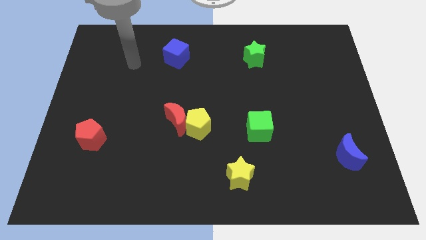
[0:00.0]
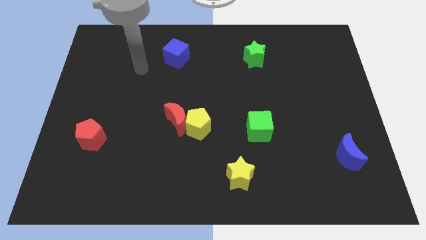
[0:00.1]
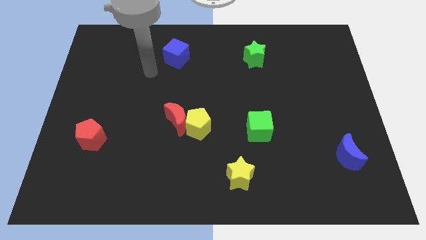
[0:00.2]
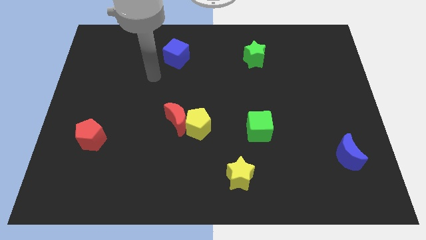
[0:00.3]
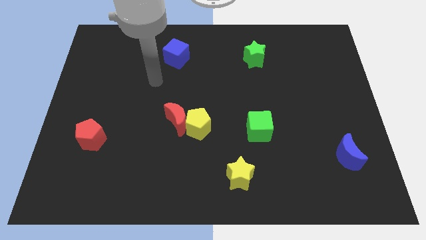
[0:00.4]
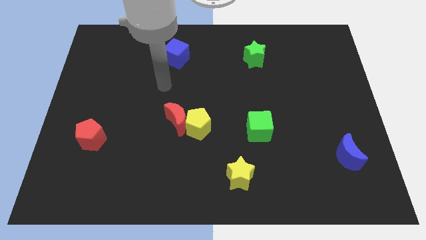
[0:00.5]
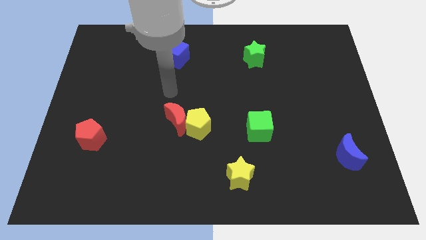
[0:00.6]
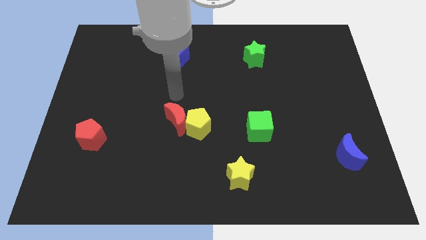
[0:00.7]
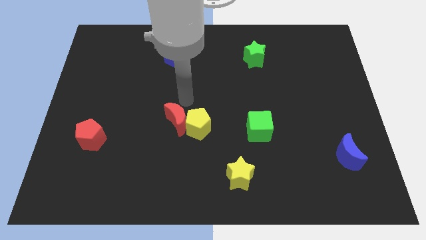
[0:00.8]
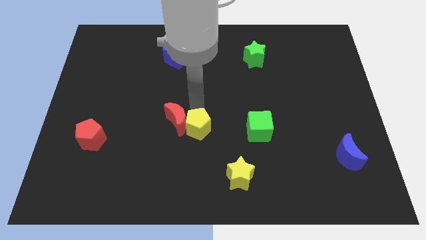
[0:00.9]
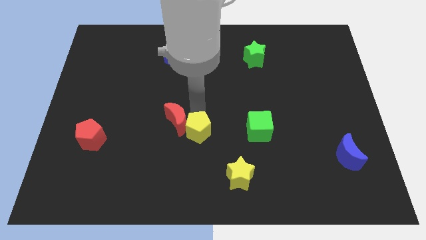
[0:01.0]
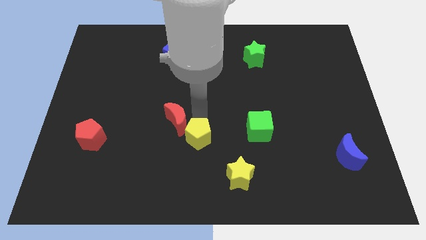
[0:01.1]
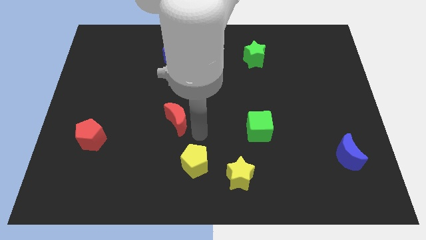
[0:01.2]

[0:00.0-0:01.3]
pull the red moon apart from the yellow pentagon

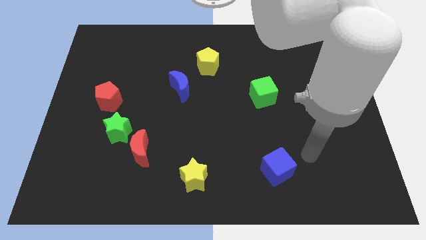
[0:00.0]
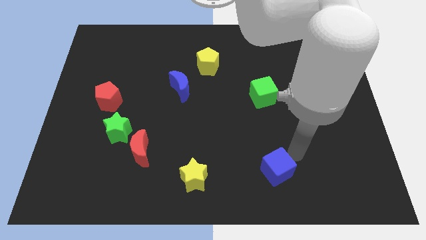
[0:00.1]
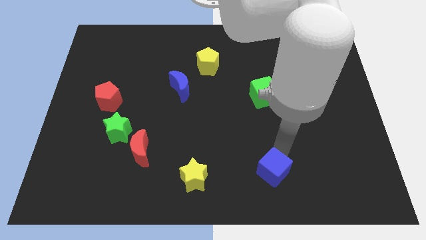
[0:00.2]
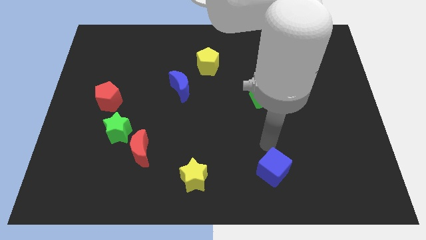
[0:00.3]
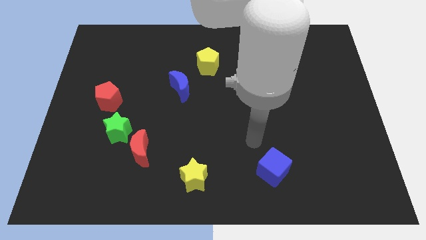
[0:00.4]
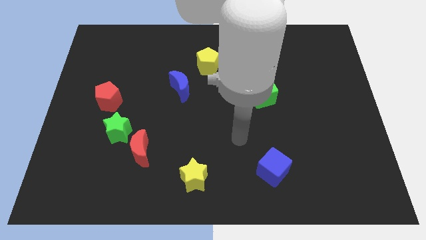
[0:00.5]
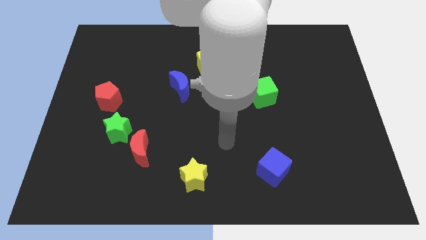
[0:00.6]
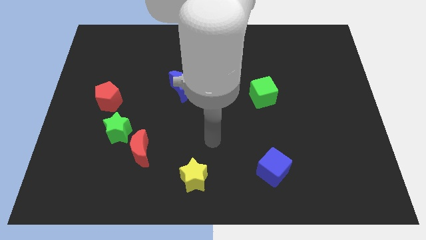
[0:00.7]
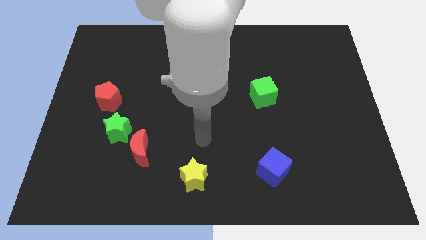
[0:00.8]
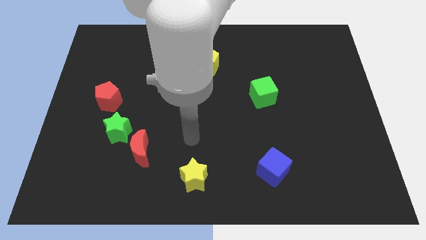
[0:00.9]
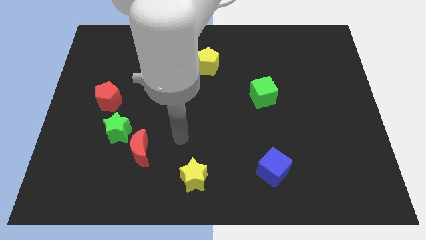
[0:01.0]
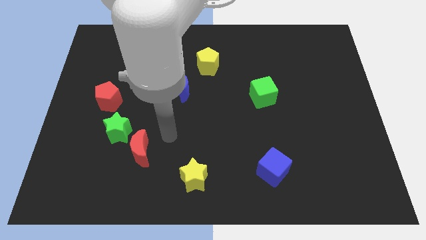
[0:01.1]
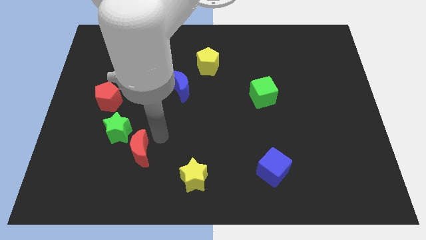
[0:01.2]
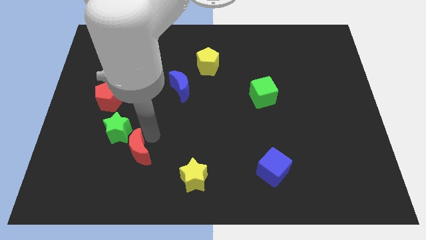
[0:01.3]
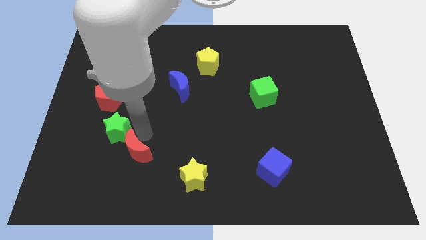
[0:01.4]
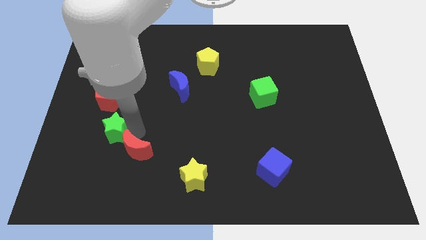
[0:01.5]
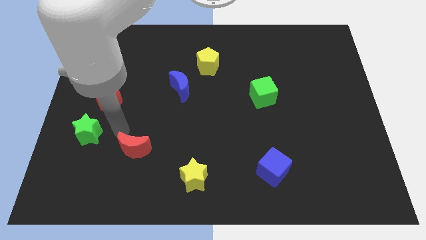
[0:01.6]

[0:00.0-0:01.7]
move the red moon away from the green star

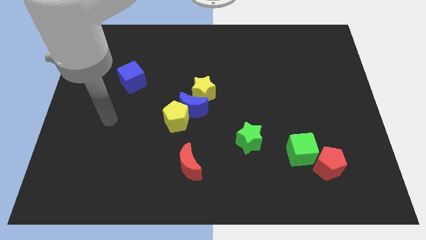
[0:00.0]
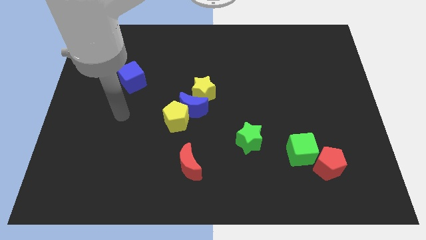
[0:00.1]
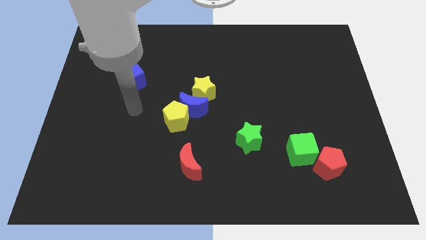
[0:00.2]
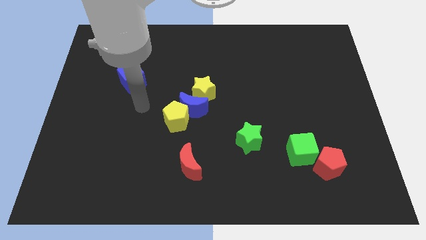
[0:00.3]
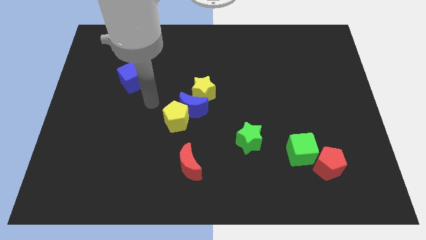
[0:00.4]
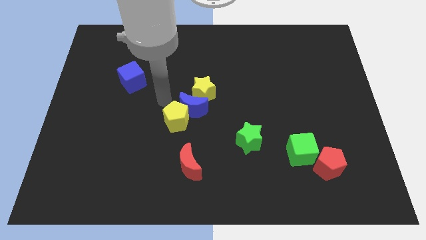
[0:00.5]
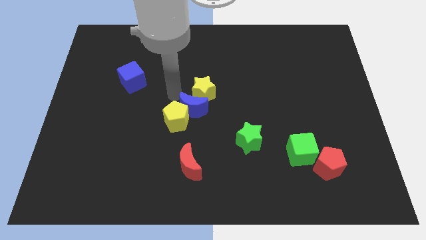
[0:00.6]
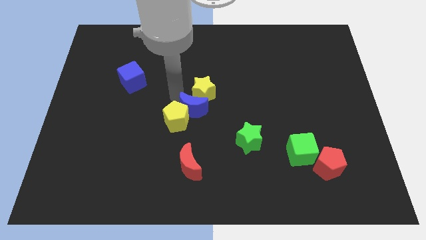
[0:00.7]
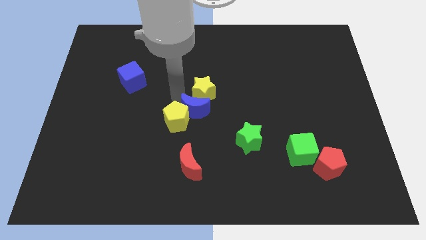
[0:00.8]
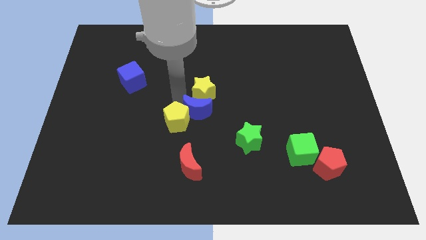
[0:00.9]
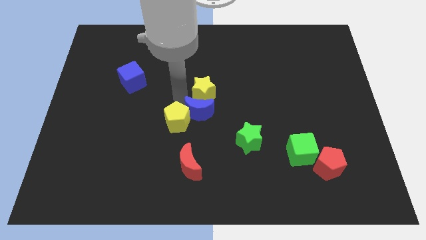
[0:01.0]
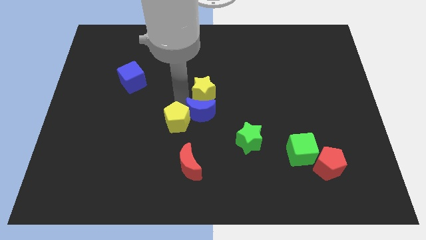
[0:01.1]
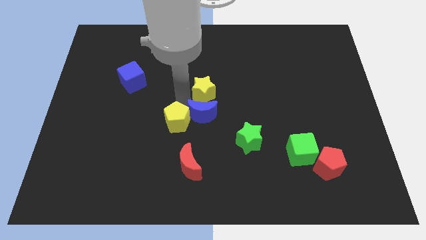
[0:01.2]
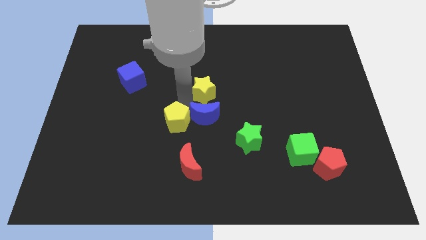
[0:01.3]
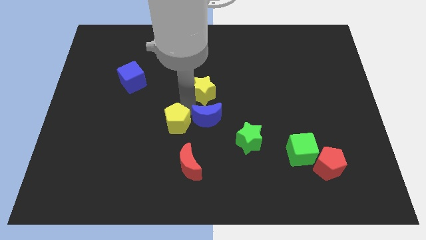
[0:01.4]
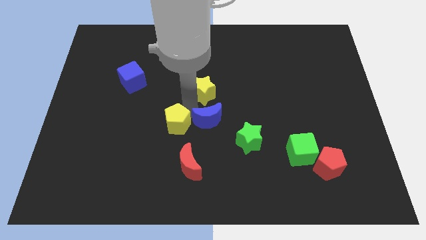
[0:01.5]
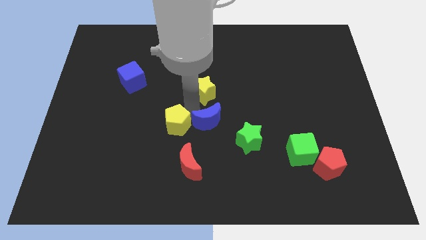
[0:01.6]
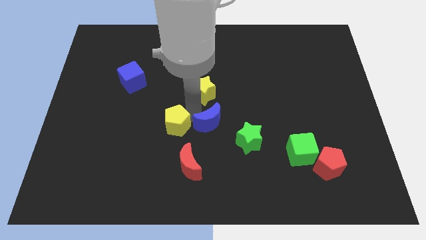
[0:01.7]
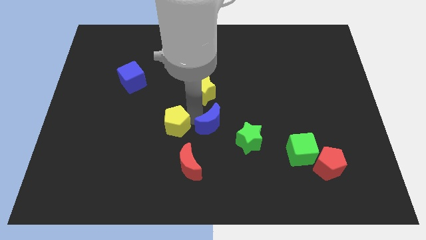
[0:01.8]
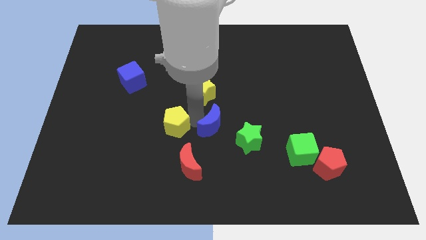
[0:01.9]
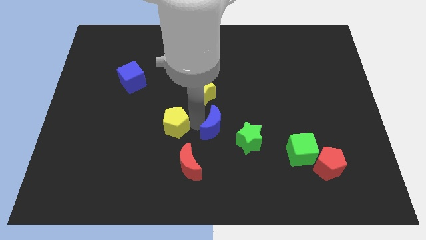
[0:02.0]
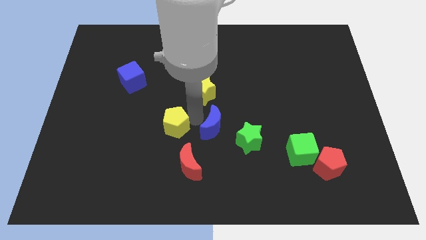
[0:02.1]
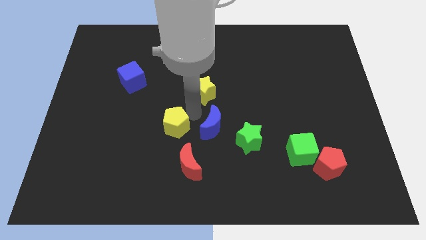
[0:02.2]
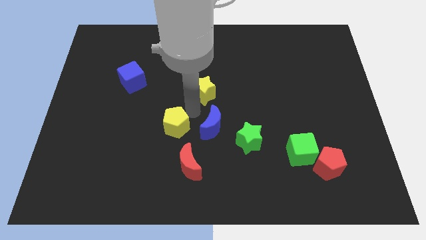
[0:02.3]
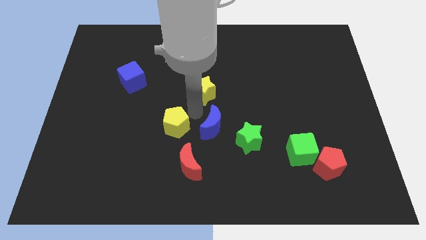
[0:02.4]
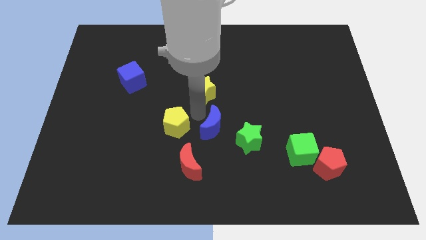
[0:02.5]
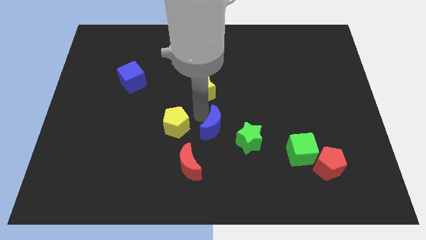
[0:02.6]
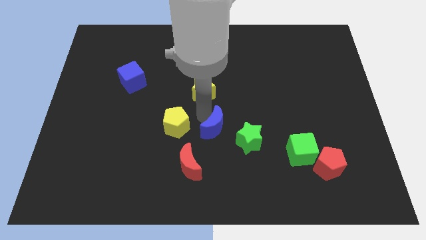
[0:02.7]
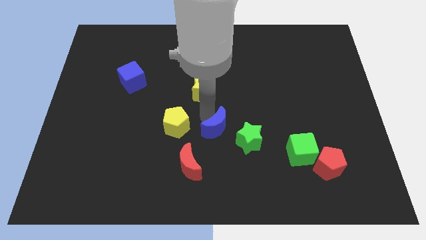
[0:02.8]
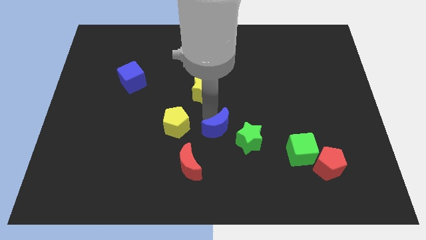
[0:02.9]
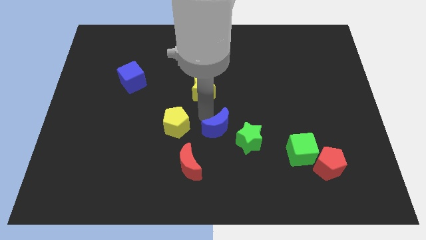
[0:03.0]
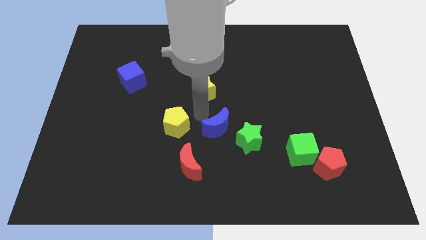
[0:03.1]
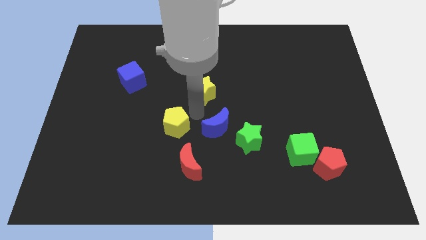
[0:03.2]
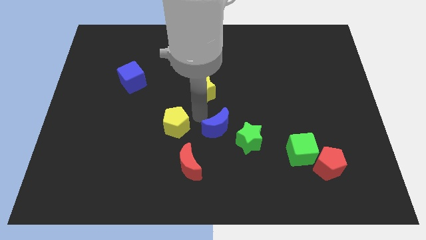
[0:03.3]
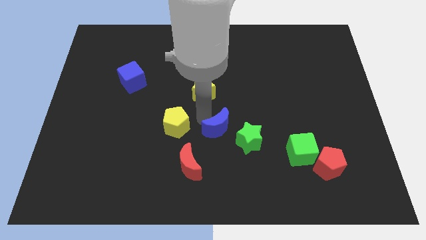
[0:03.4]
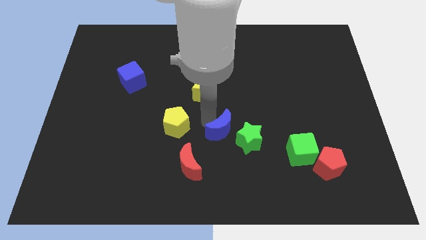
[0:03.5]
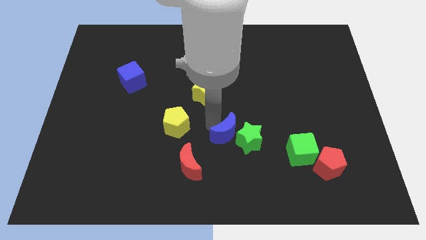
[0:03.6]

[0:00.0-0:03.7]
move the blue moon away from the yellow pentagon and yellow star

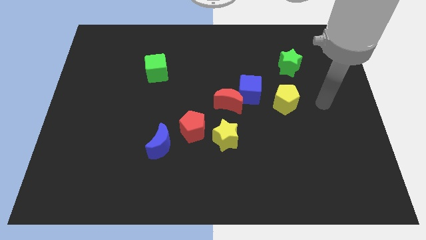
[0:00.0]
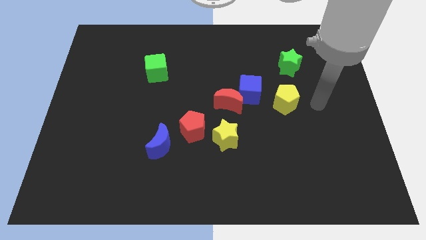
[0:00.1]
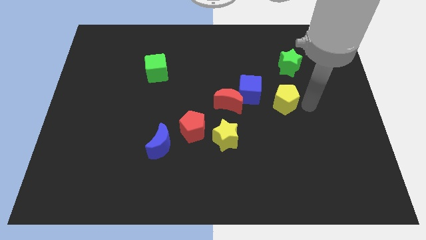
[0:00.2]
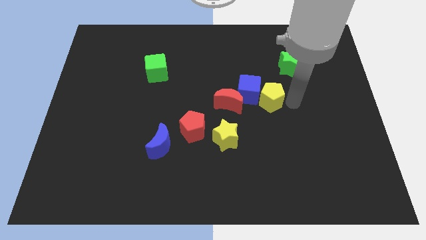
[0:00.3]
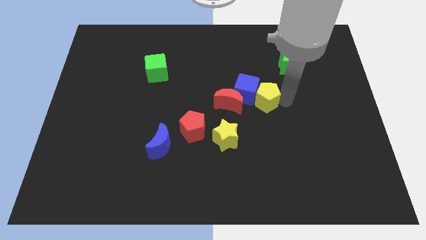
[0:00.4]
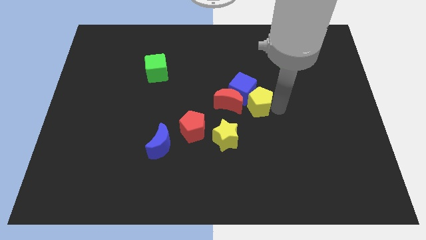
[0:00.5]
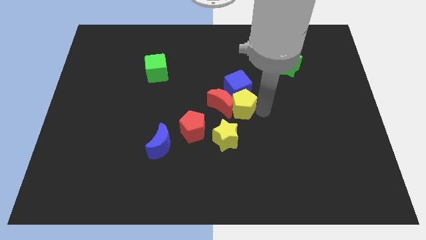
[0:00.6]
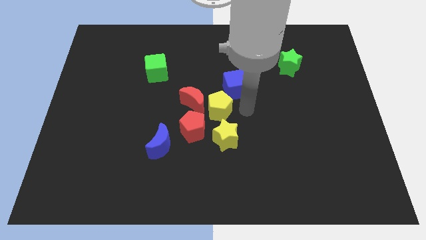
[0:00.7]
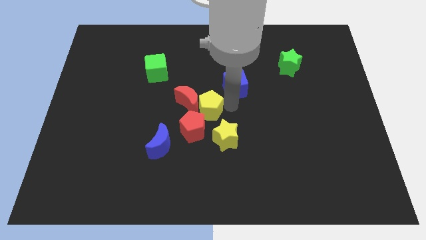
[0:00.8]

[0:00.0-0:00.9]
pull the blue cube apart from the red moon and yellow pentagon

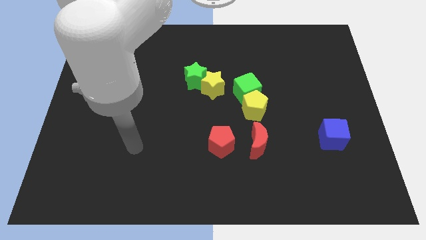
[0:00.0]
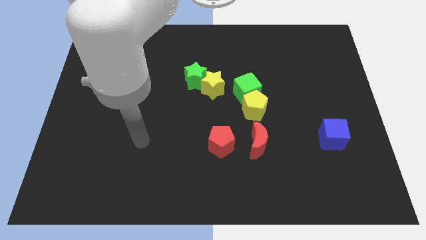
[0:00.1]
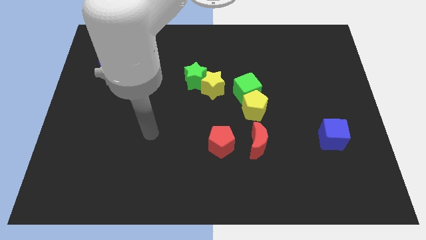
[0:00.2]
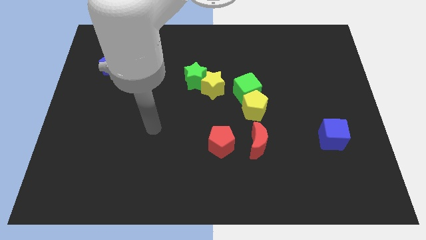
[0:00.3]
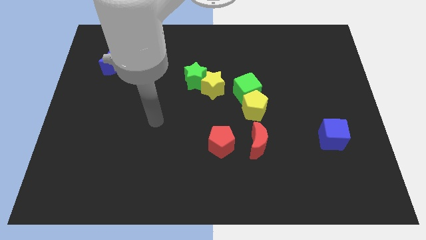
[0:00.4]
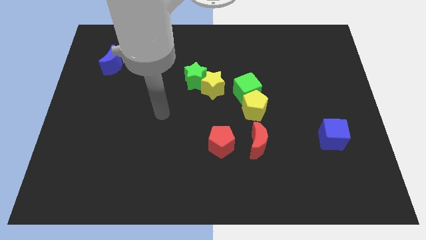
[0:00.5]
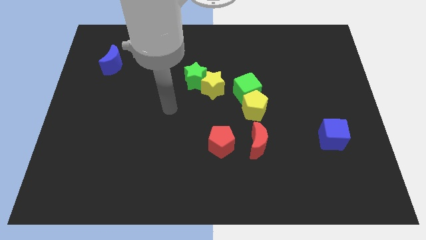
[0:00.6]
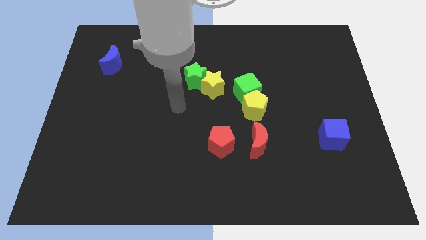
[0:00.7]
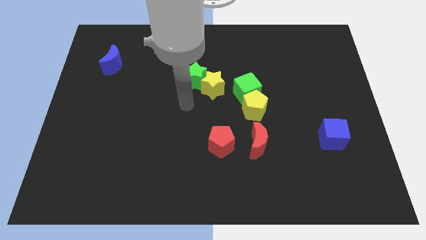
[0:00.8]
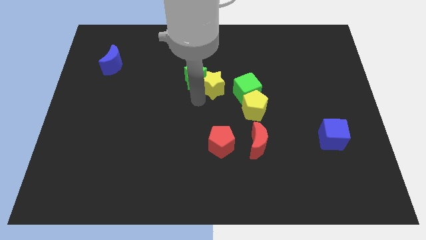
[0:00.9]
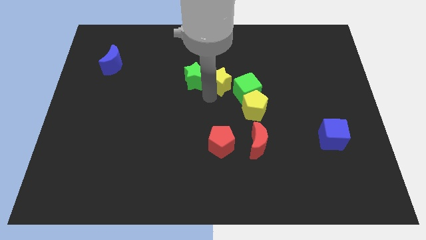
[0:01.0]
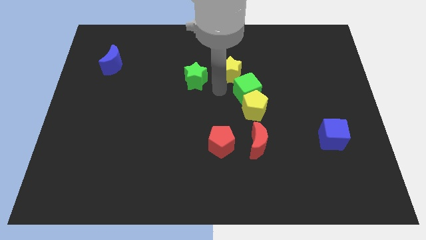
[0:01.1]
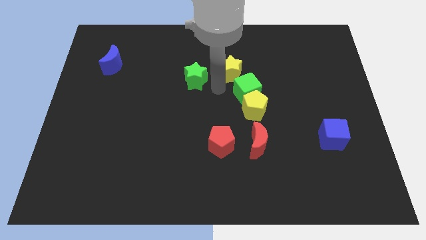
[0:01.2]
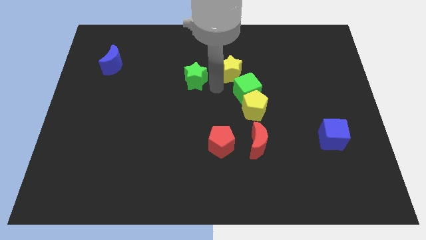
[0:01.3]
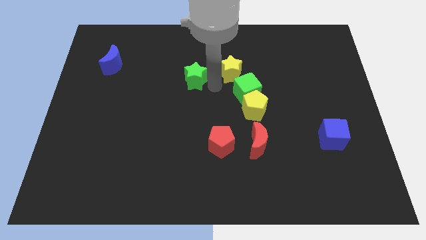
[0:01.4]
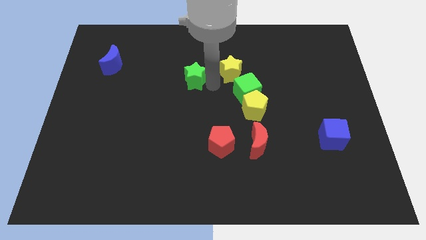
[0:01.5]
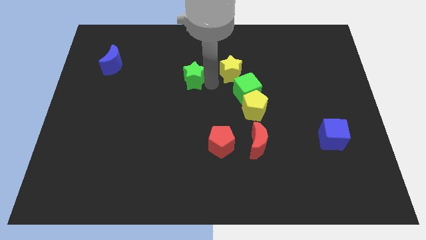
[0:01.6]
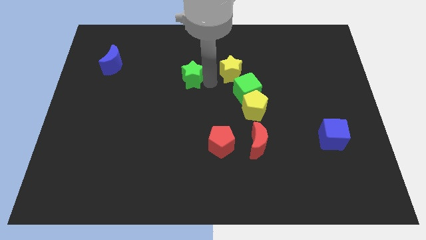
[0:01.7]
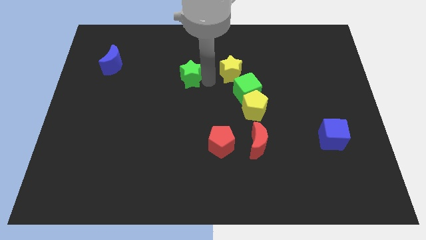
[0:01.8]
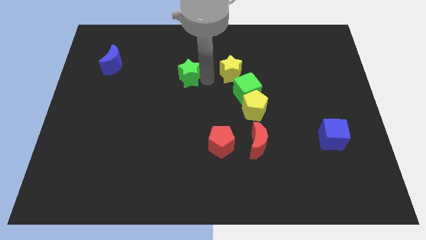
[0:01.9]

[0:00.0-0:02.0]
separate the green star from the yellow star
